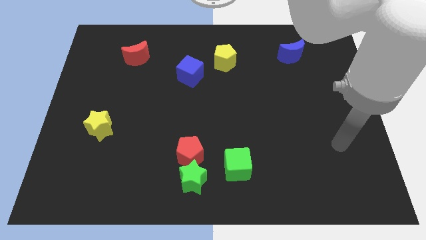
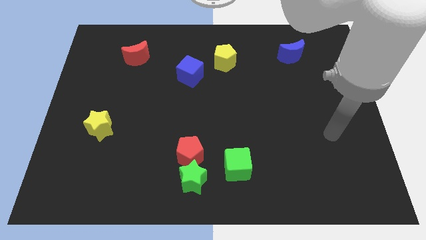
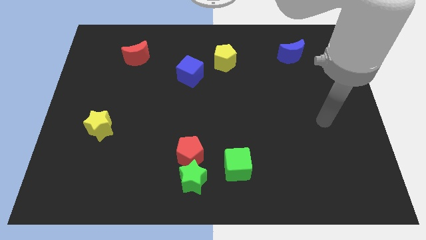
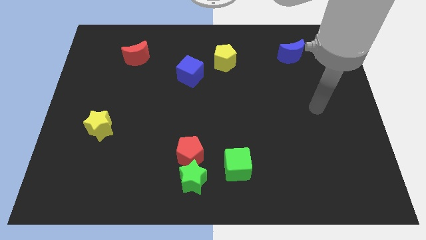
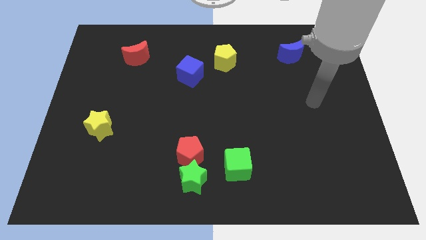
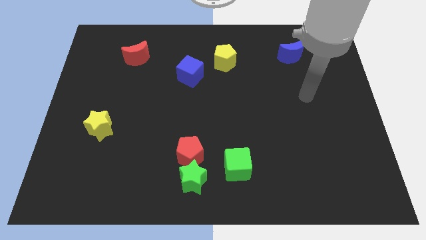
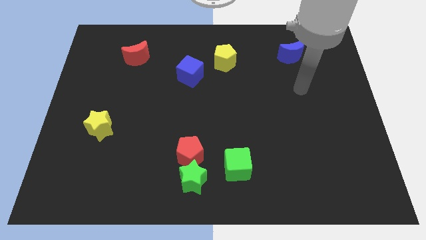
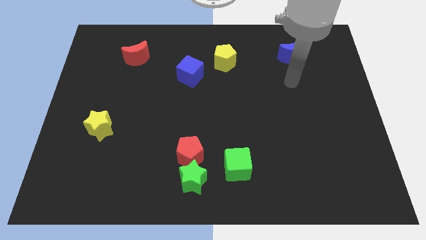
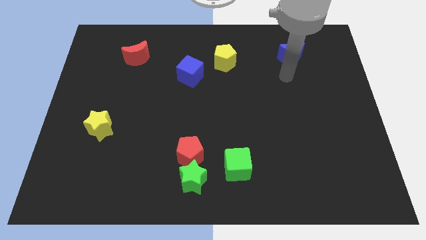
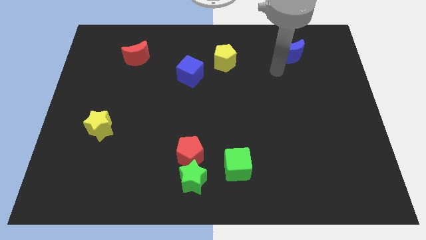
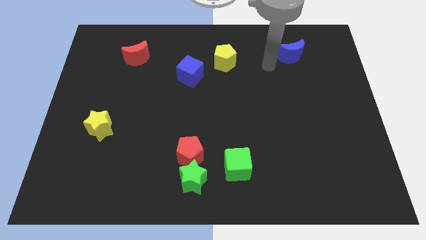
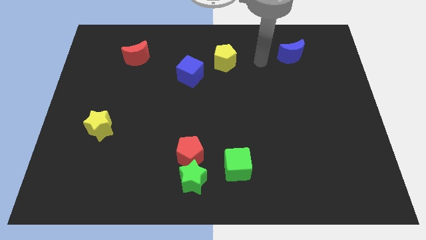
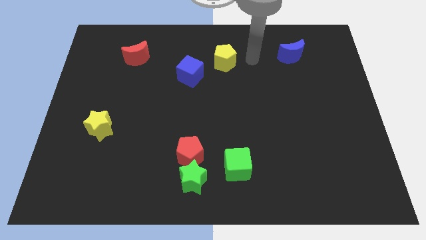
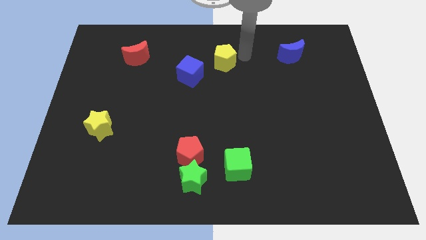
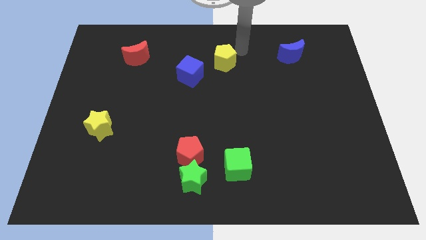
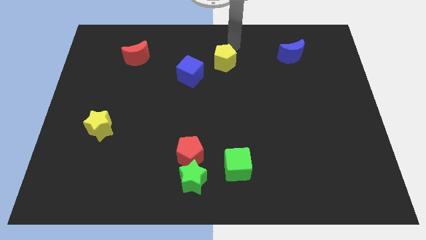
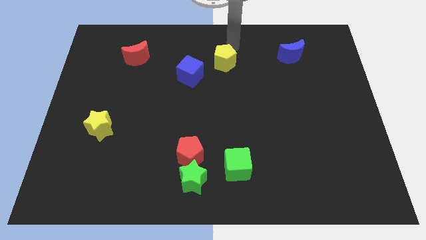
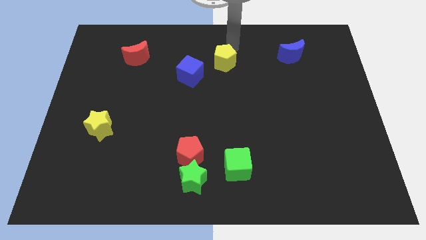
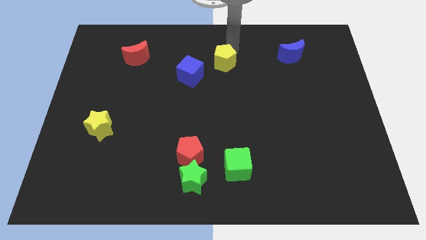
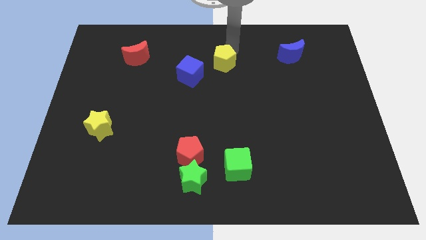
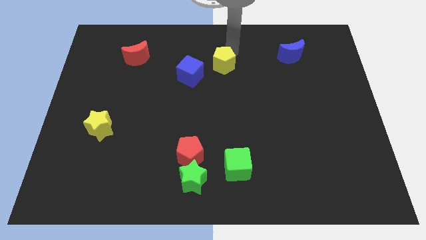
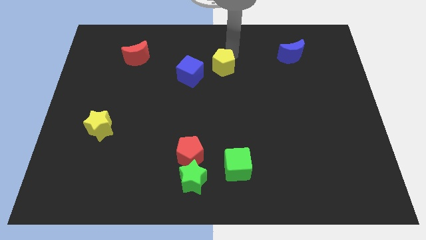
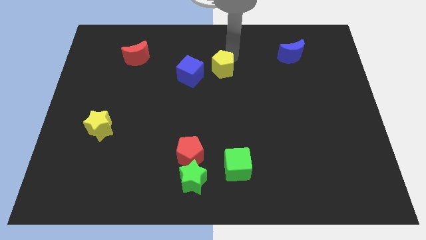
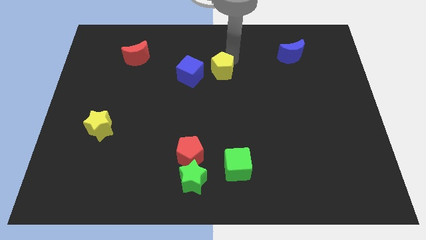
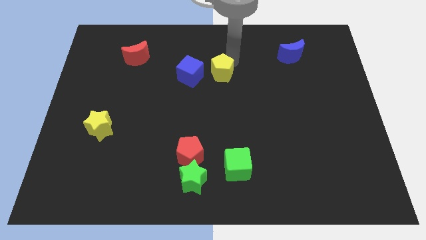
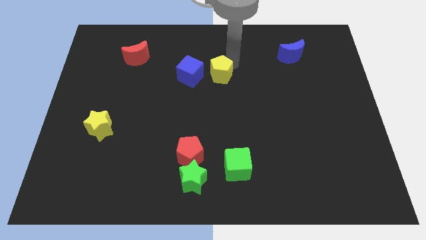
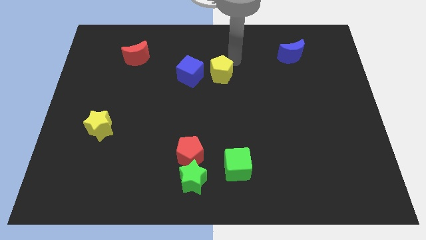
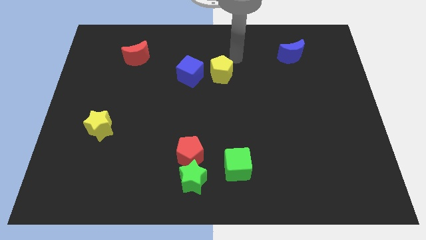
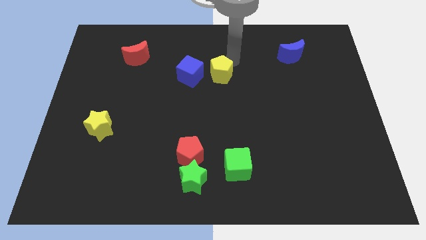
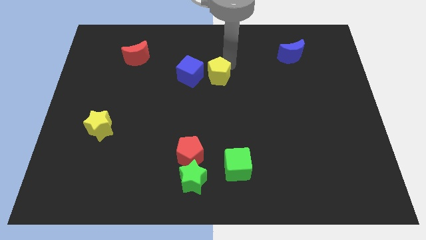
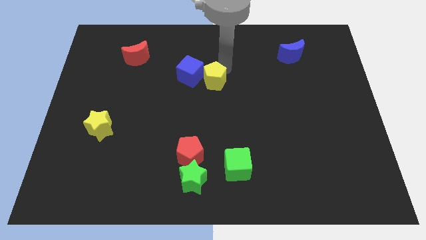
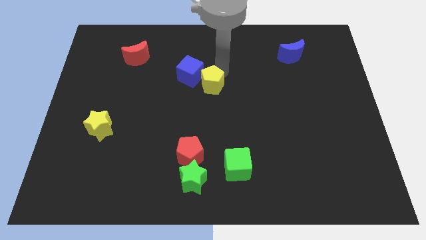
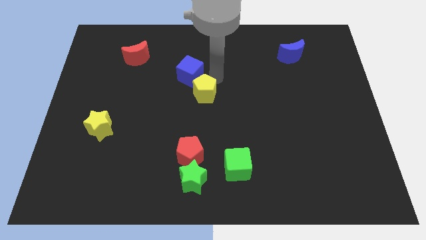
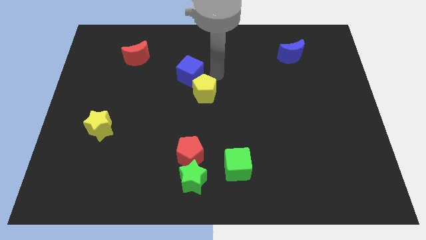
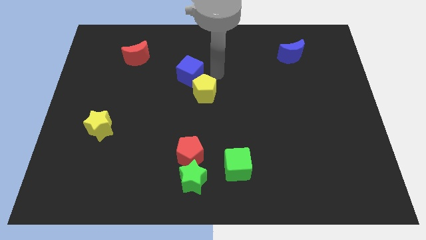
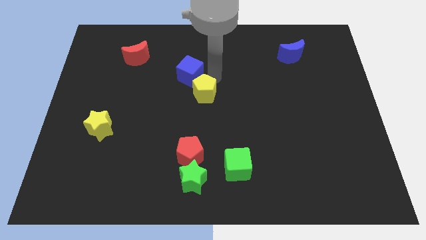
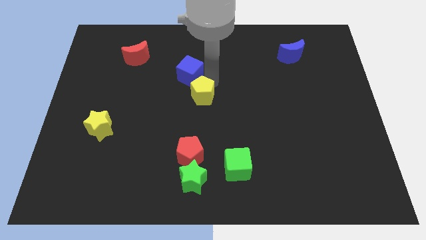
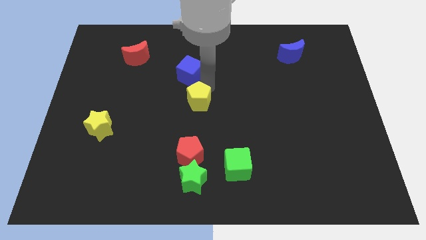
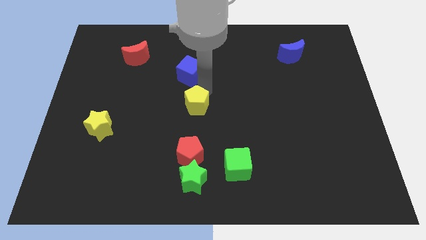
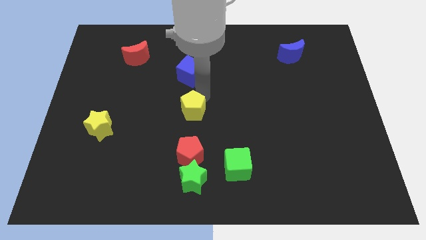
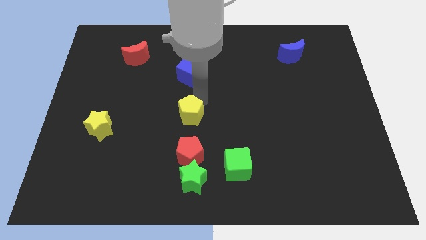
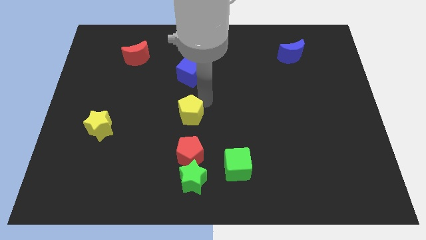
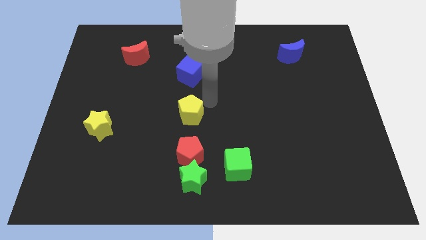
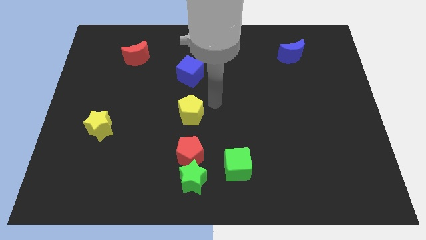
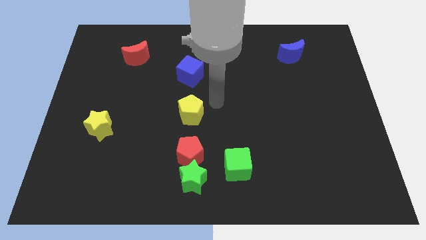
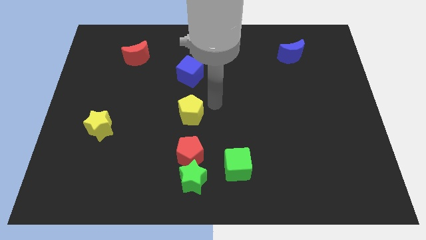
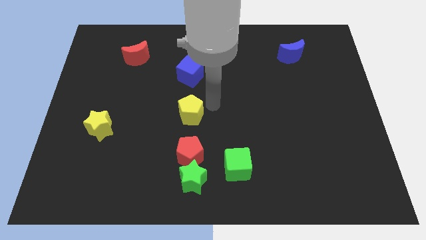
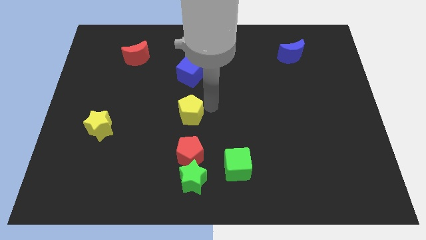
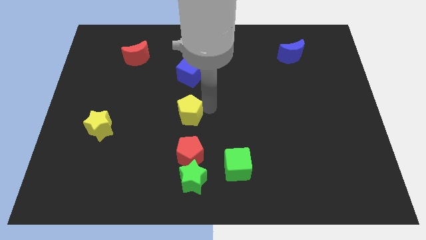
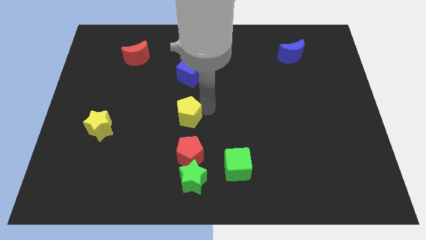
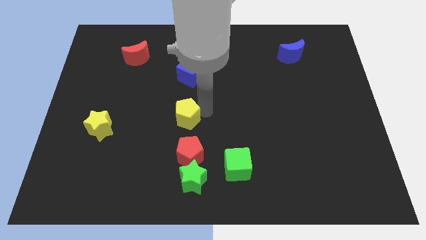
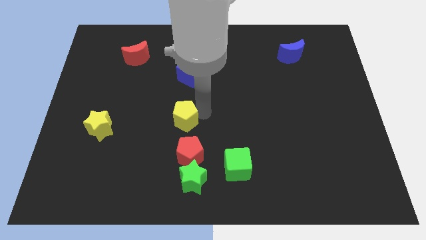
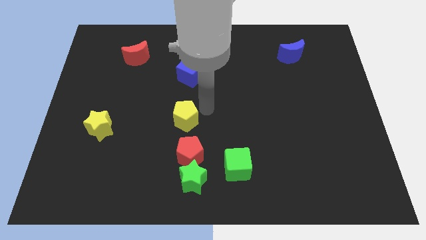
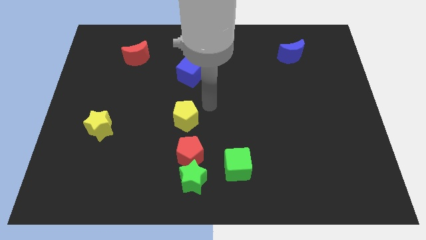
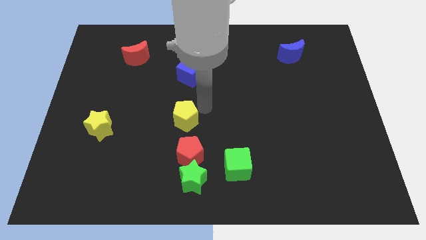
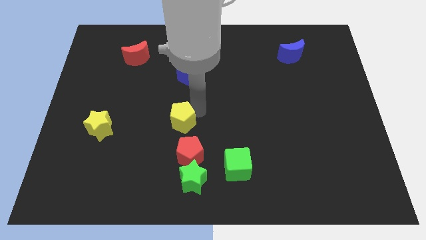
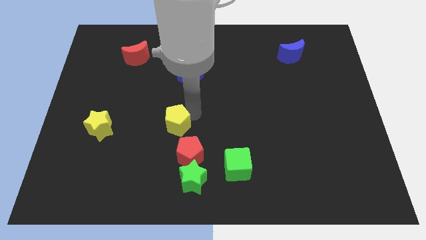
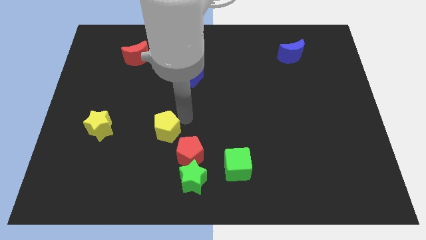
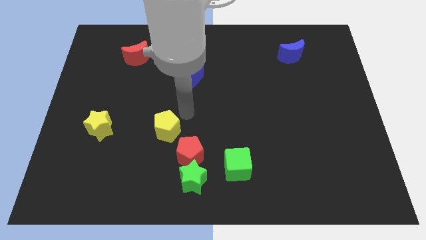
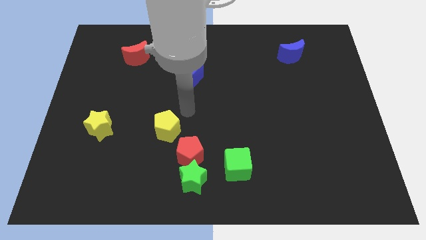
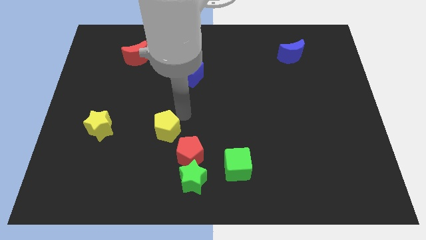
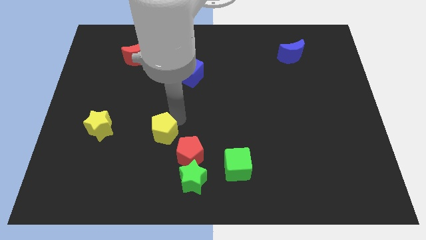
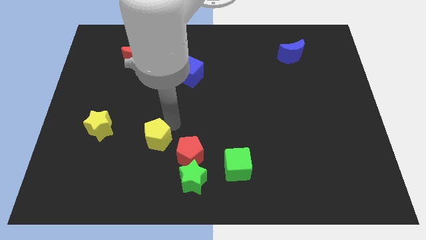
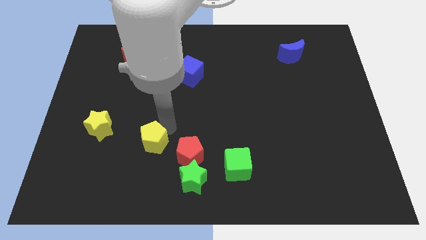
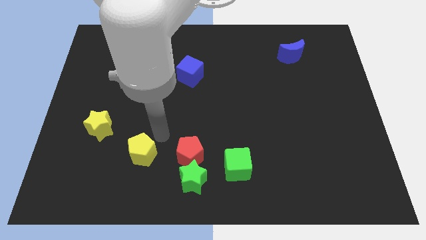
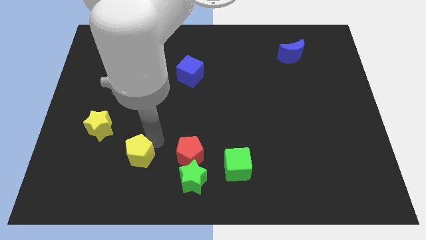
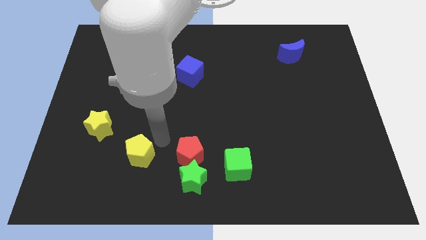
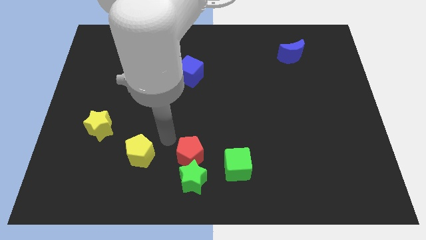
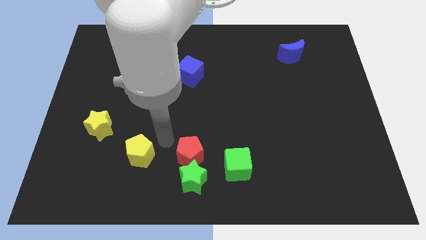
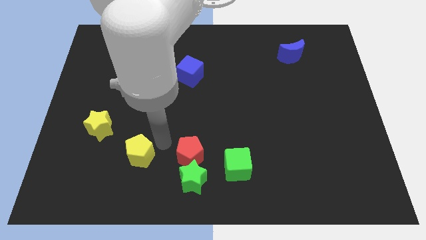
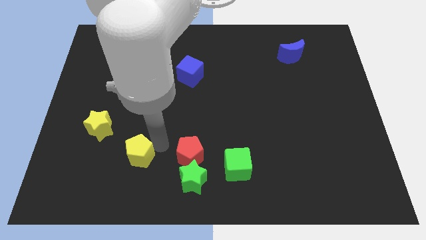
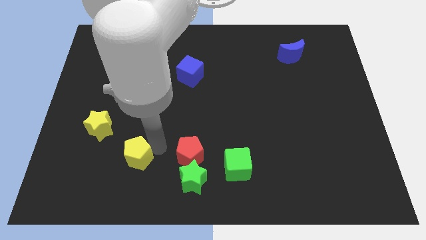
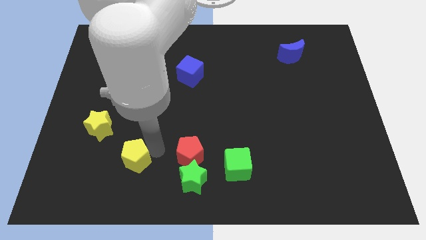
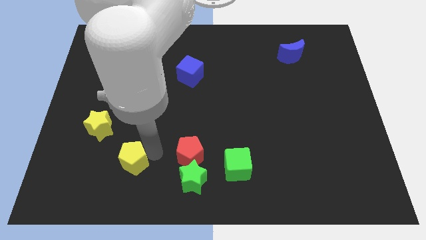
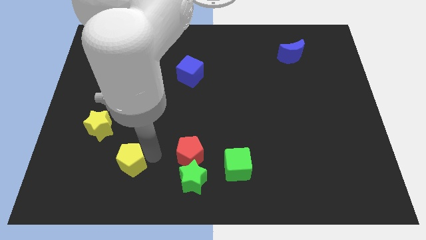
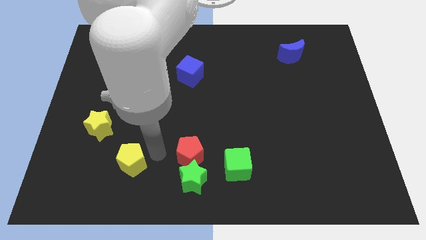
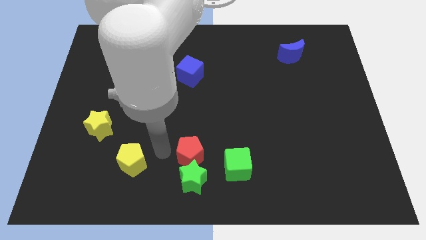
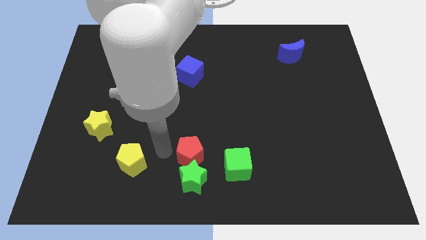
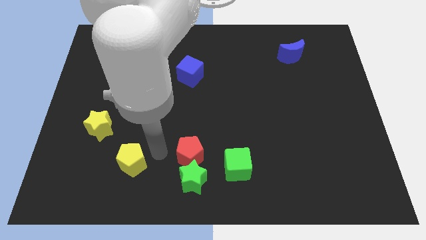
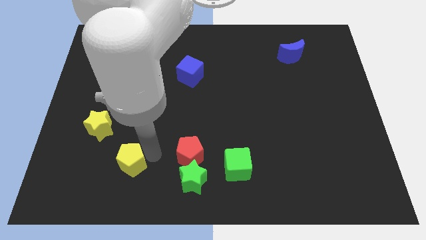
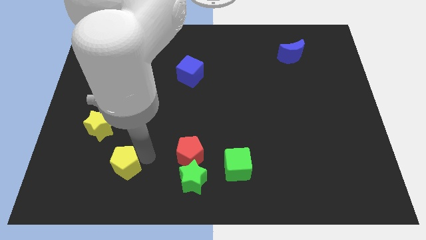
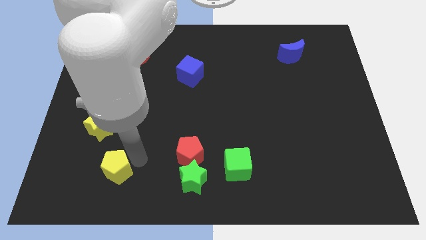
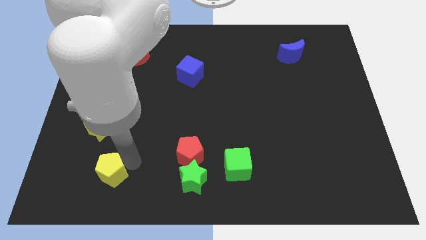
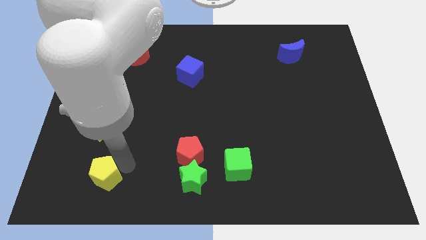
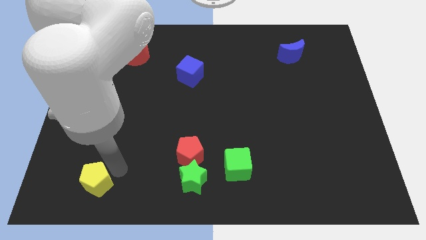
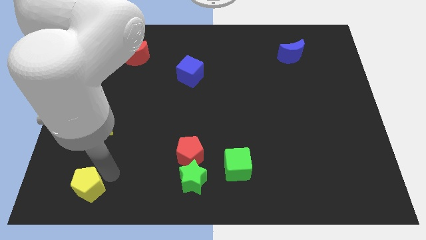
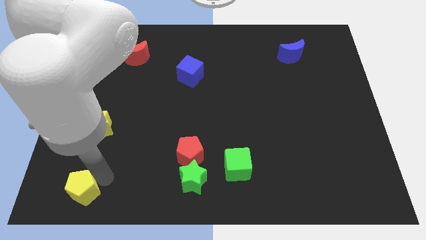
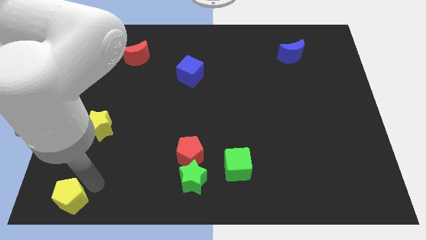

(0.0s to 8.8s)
put the yellow pentagon to the bottom left of the board
